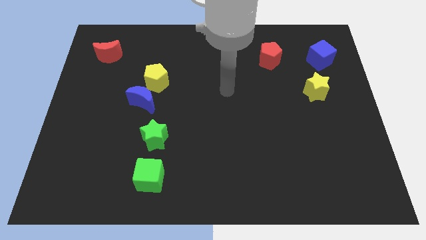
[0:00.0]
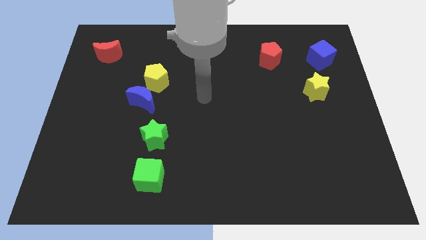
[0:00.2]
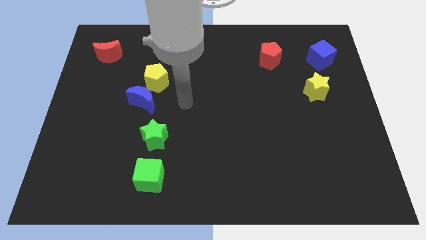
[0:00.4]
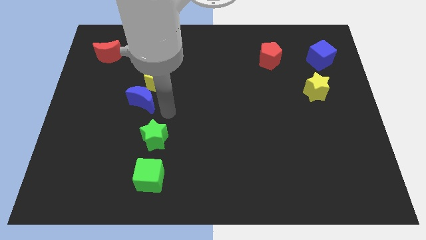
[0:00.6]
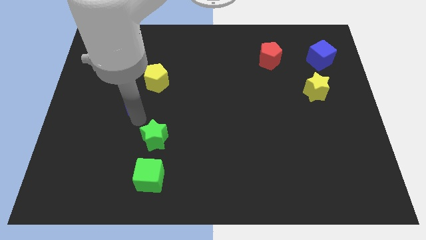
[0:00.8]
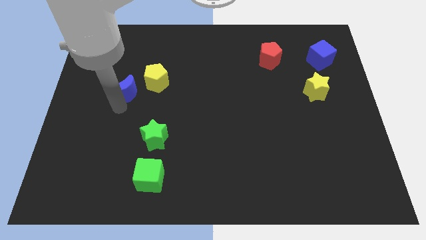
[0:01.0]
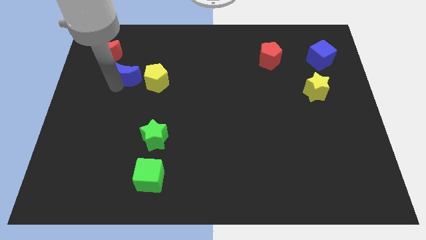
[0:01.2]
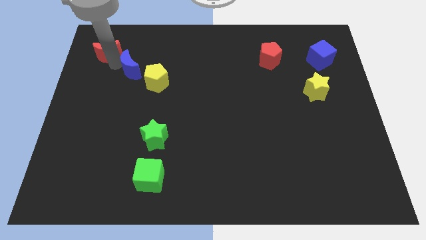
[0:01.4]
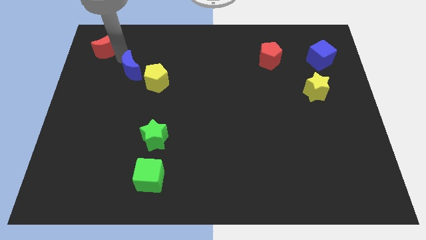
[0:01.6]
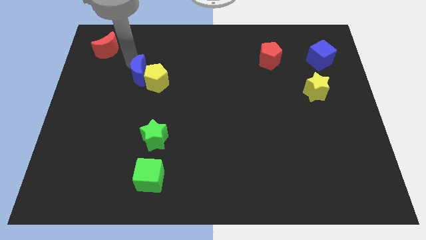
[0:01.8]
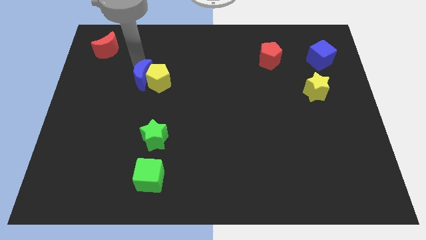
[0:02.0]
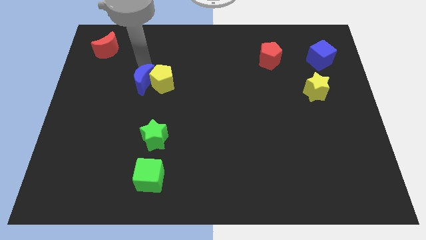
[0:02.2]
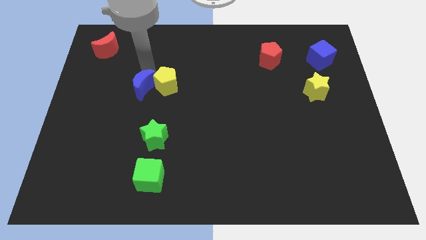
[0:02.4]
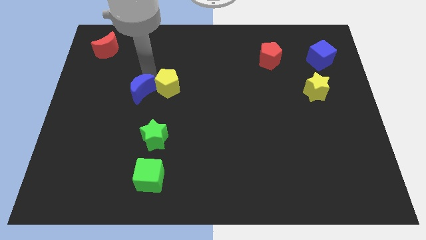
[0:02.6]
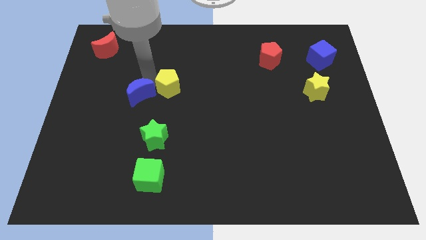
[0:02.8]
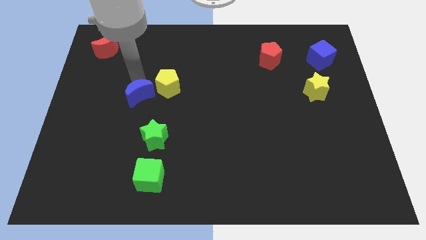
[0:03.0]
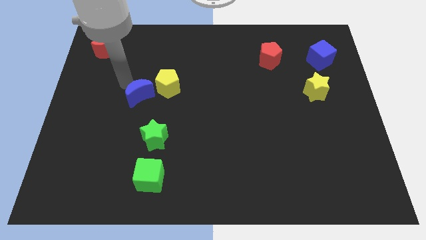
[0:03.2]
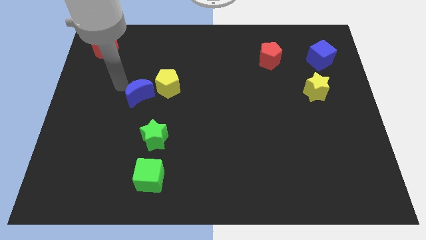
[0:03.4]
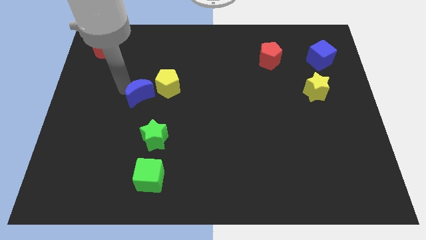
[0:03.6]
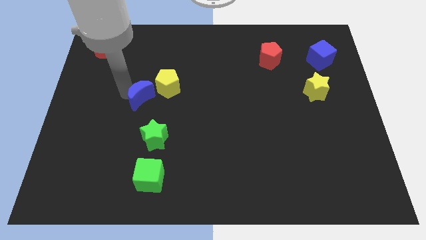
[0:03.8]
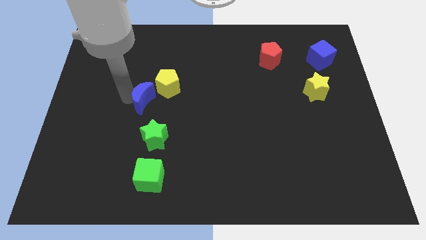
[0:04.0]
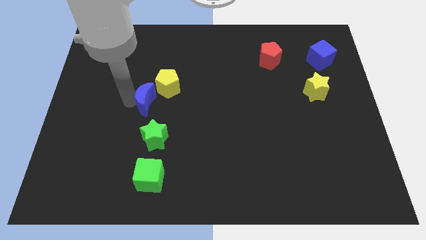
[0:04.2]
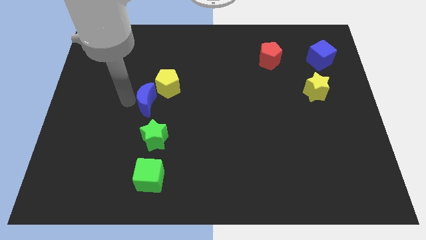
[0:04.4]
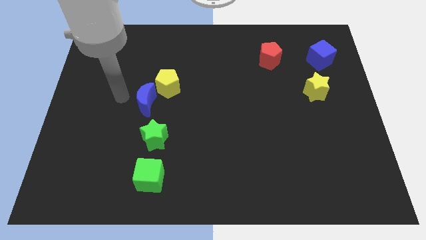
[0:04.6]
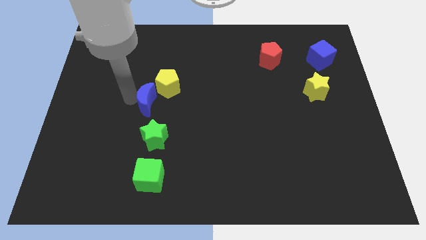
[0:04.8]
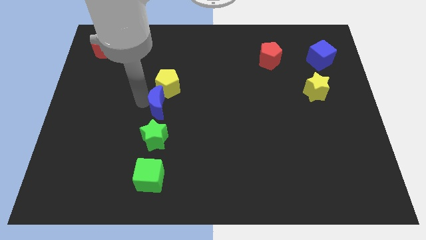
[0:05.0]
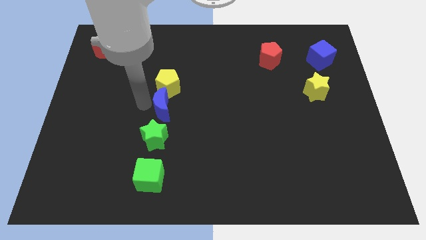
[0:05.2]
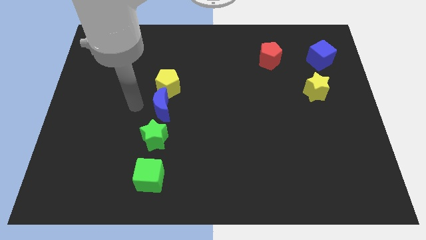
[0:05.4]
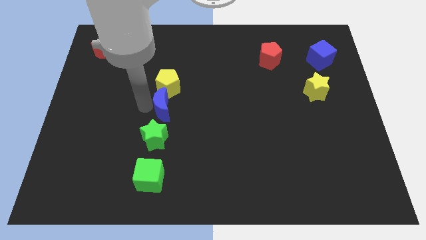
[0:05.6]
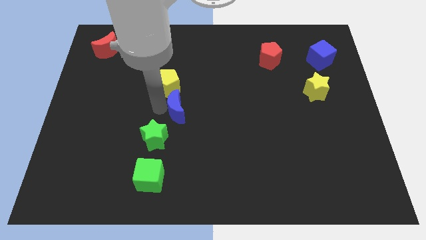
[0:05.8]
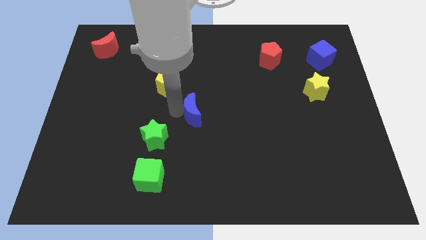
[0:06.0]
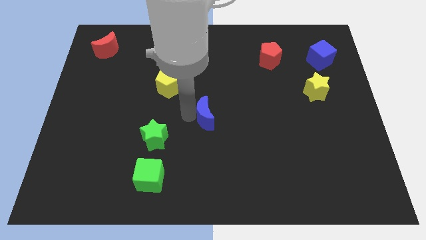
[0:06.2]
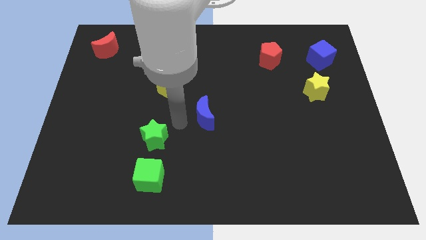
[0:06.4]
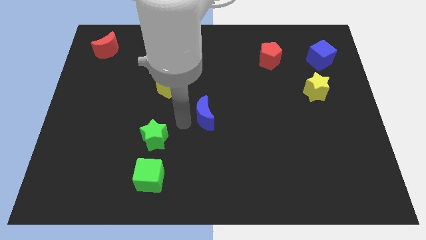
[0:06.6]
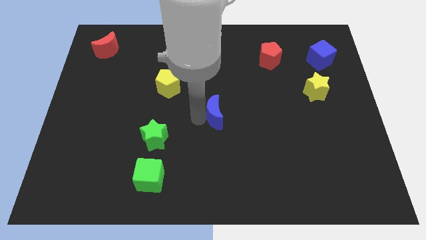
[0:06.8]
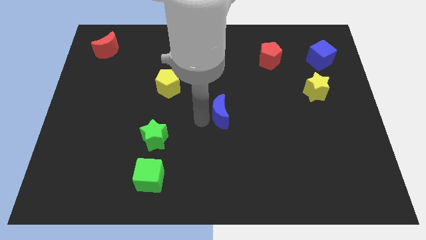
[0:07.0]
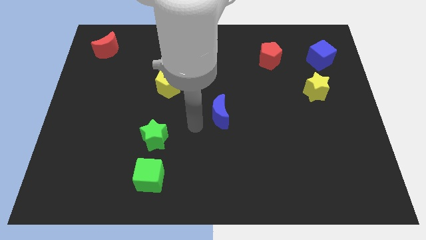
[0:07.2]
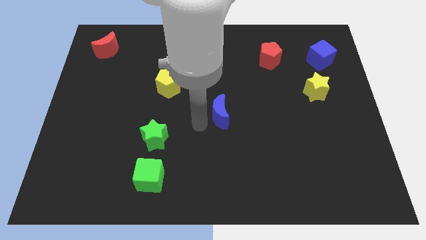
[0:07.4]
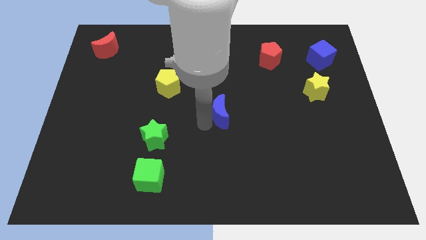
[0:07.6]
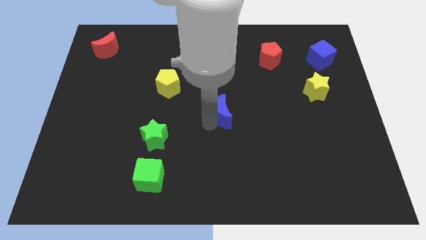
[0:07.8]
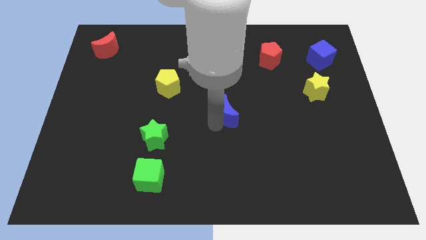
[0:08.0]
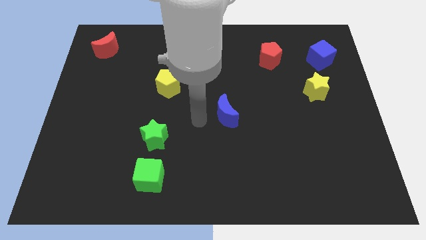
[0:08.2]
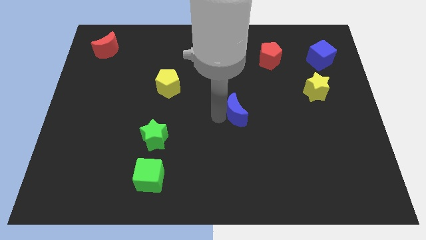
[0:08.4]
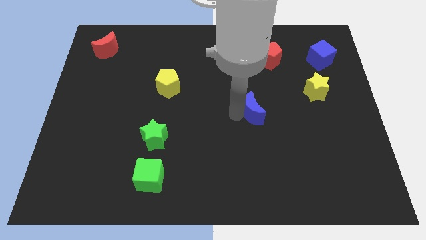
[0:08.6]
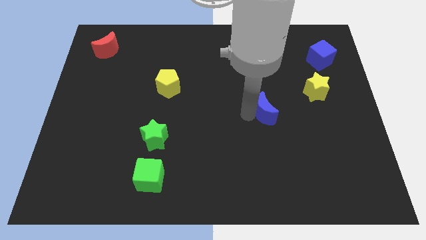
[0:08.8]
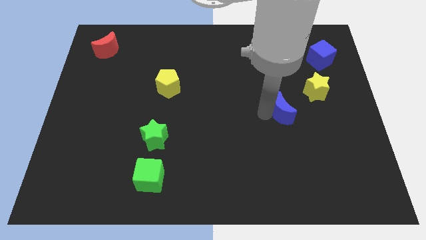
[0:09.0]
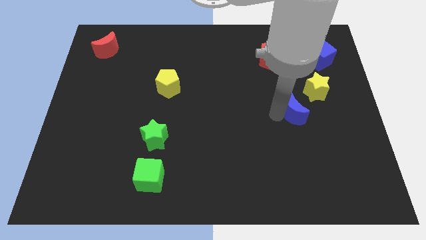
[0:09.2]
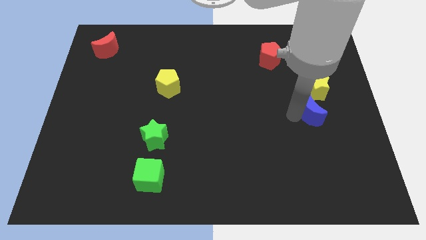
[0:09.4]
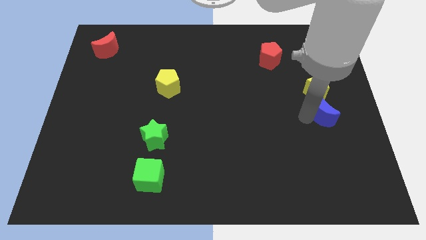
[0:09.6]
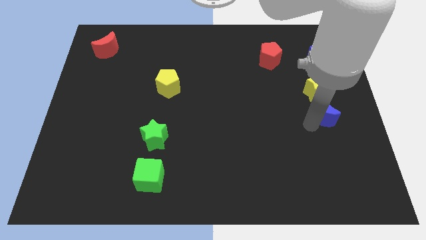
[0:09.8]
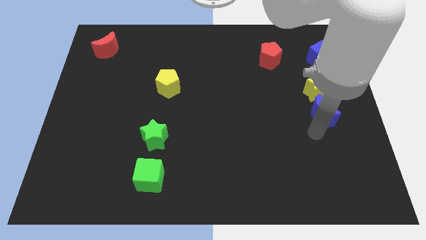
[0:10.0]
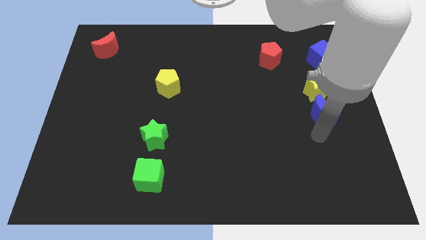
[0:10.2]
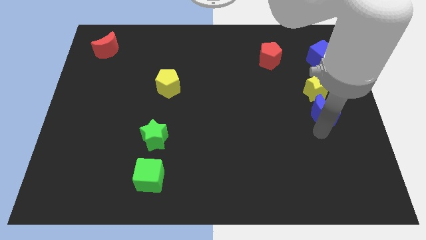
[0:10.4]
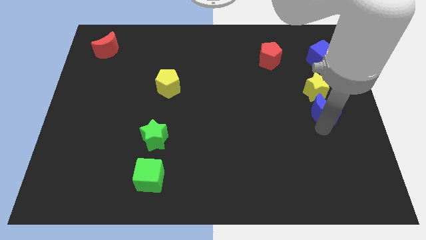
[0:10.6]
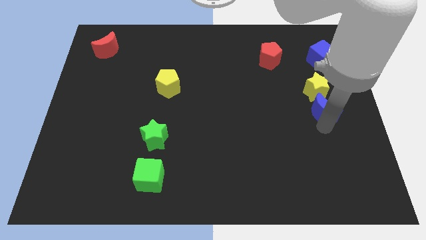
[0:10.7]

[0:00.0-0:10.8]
move the blue moon to the right side
